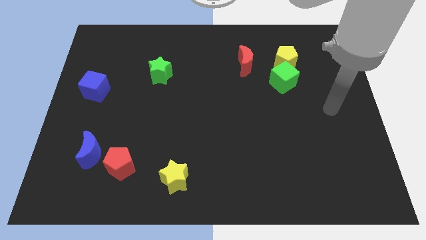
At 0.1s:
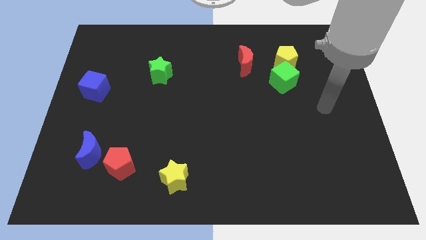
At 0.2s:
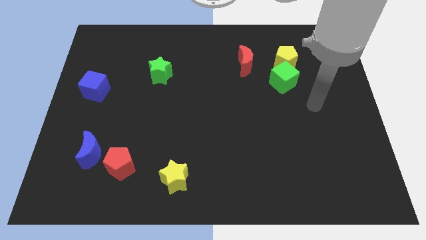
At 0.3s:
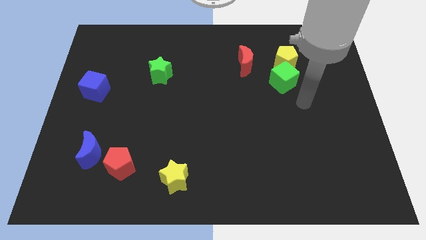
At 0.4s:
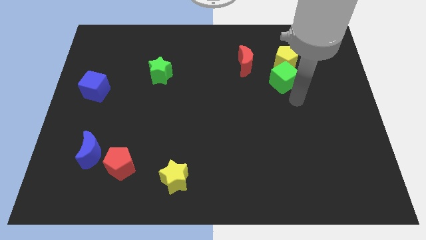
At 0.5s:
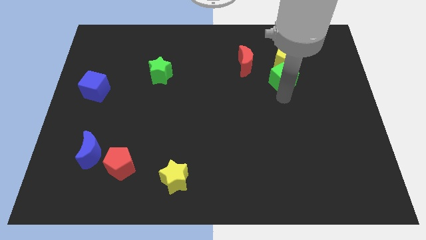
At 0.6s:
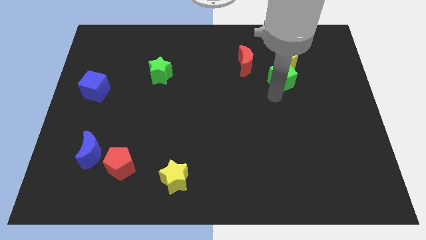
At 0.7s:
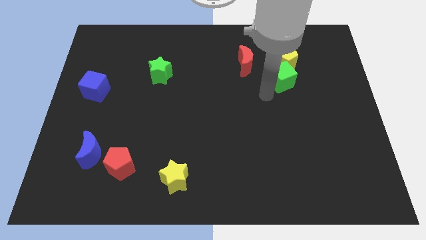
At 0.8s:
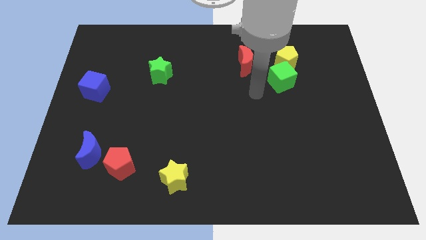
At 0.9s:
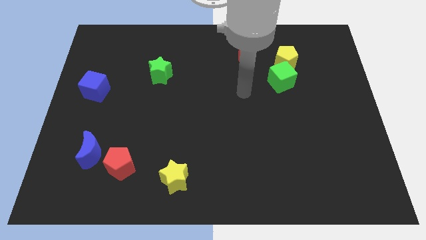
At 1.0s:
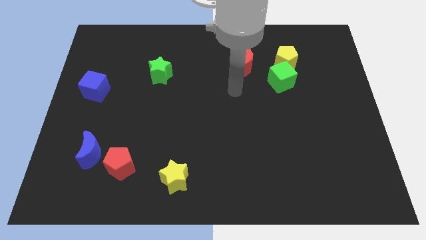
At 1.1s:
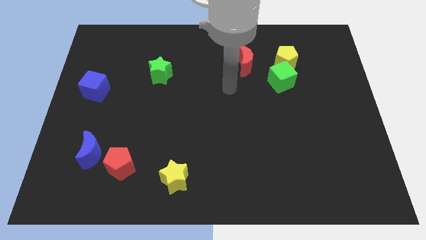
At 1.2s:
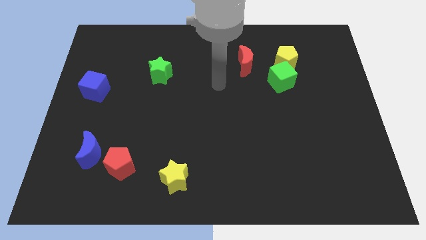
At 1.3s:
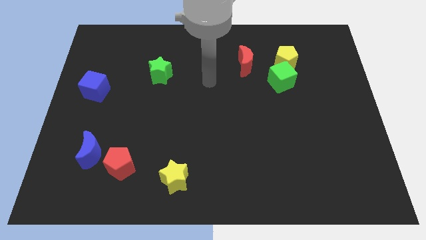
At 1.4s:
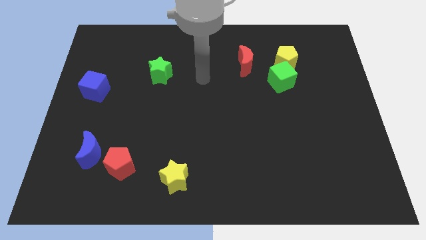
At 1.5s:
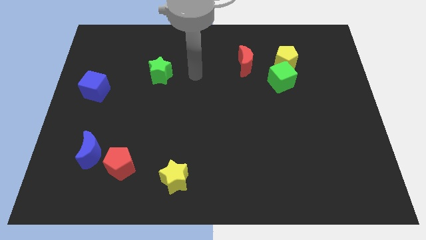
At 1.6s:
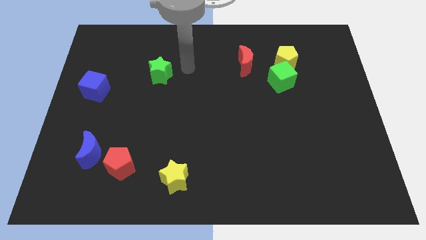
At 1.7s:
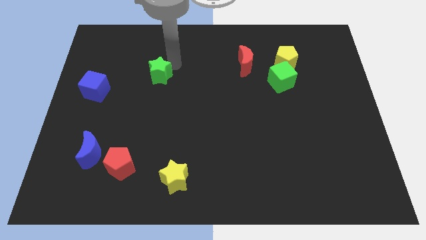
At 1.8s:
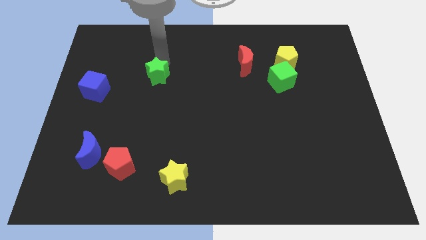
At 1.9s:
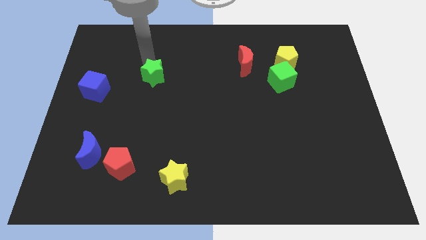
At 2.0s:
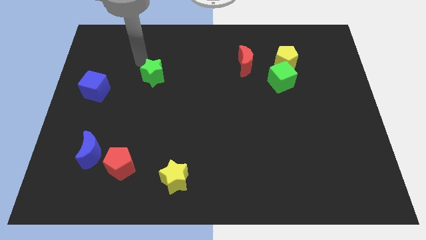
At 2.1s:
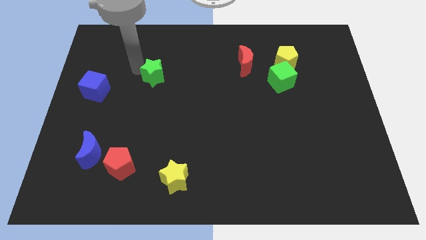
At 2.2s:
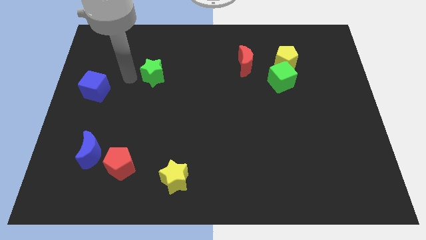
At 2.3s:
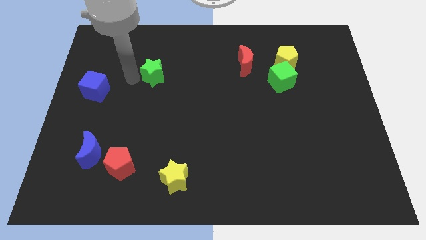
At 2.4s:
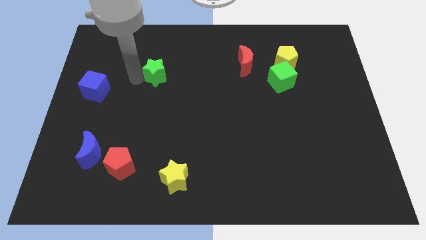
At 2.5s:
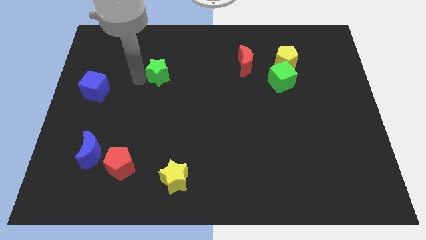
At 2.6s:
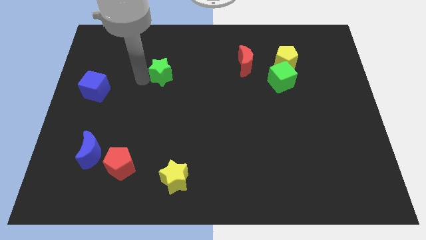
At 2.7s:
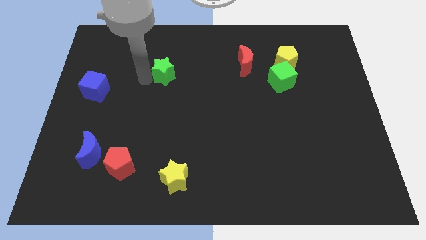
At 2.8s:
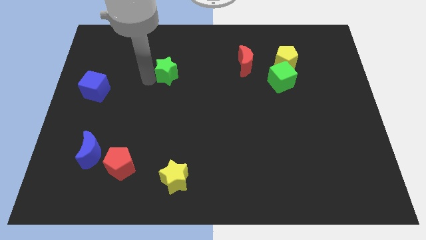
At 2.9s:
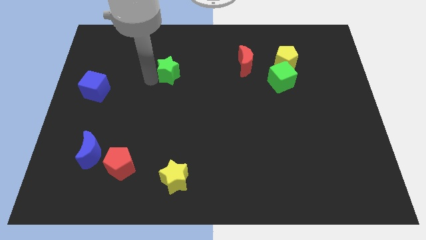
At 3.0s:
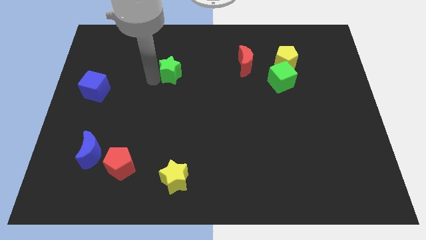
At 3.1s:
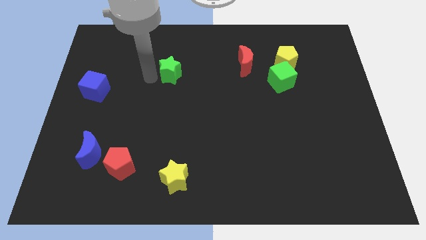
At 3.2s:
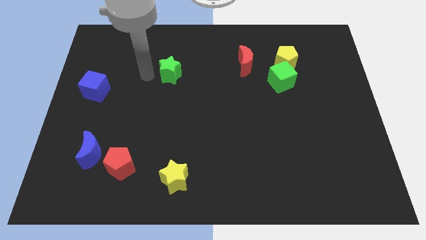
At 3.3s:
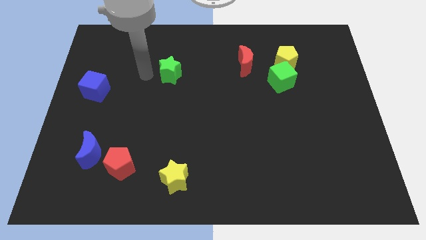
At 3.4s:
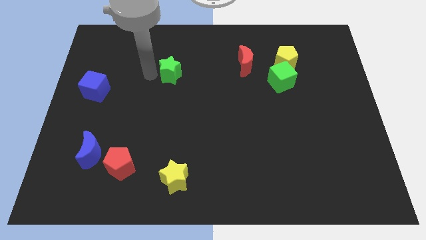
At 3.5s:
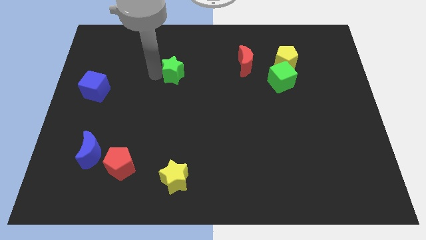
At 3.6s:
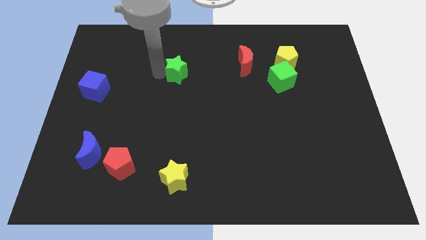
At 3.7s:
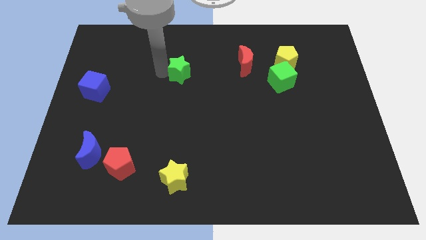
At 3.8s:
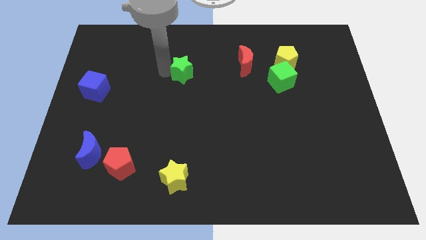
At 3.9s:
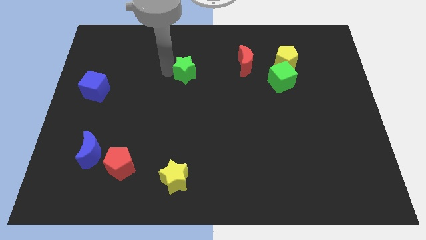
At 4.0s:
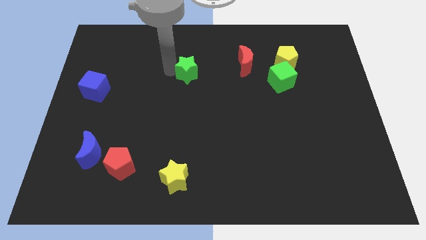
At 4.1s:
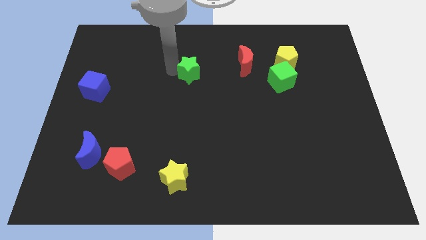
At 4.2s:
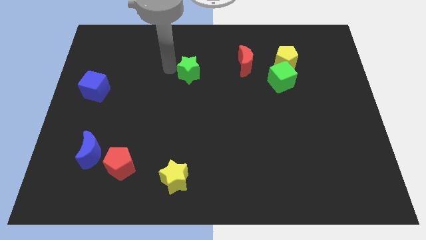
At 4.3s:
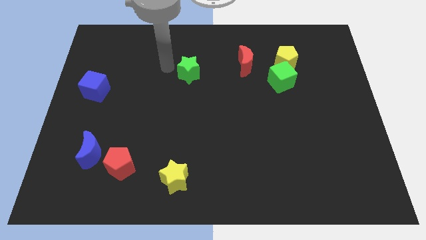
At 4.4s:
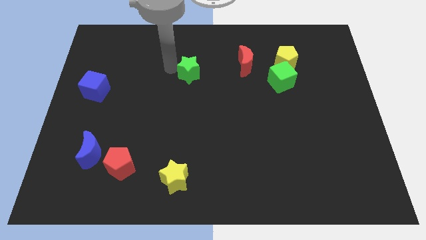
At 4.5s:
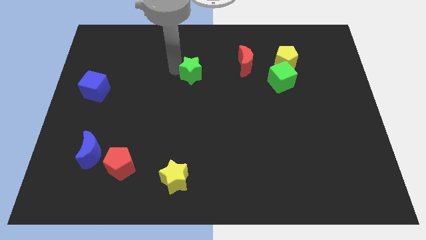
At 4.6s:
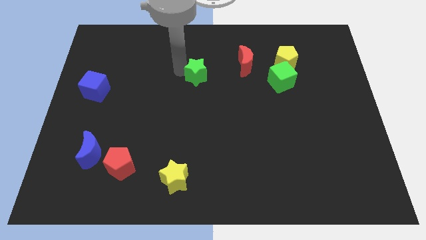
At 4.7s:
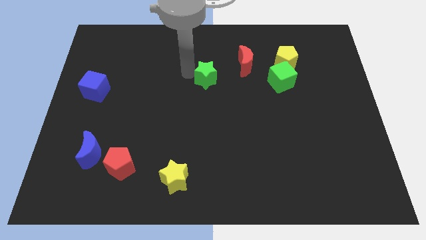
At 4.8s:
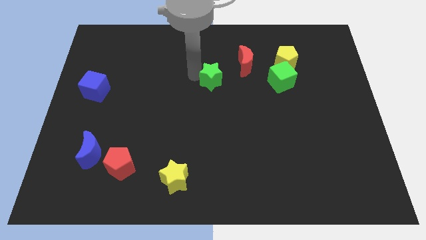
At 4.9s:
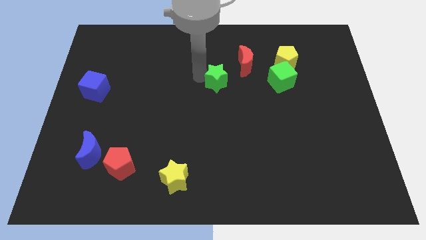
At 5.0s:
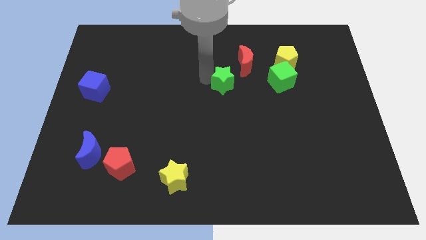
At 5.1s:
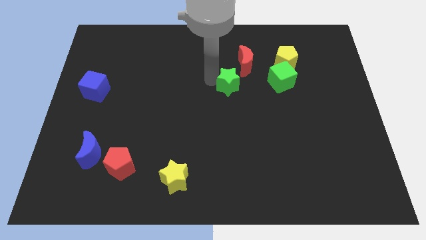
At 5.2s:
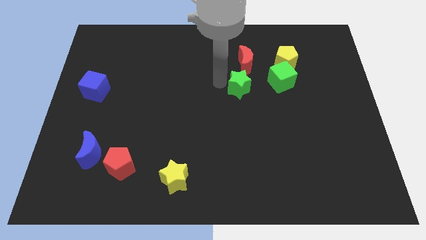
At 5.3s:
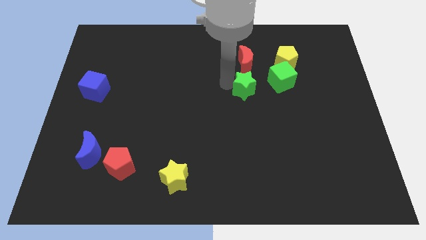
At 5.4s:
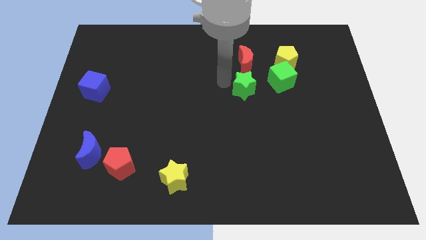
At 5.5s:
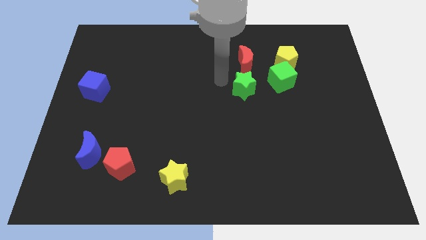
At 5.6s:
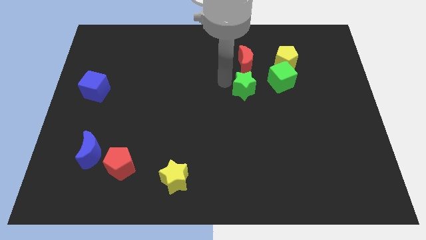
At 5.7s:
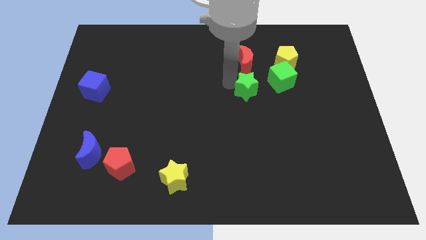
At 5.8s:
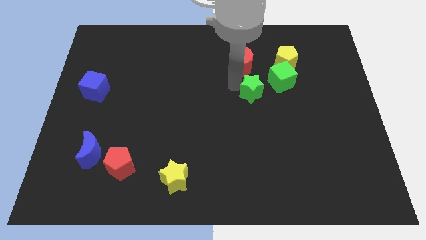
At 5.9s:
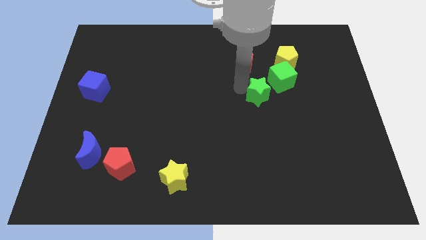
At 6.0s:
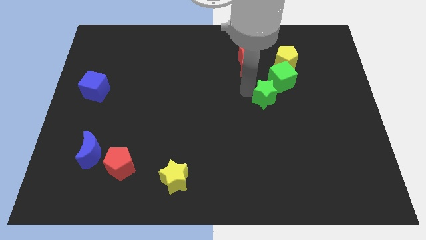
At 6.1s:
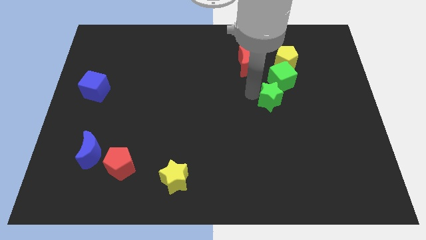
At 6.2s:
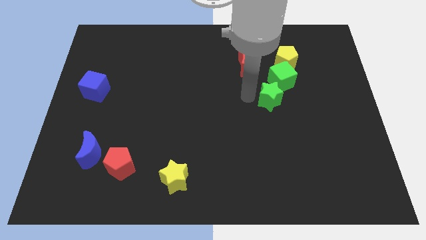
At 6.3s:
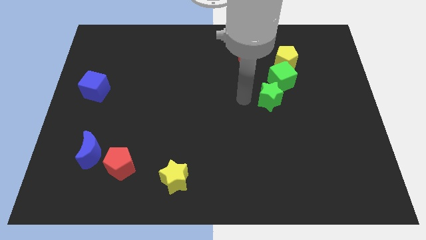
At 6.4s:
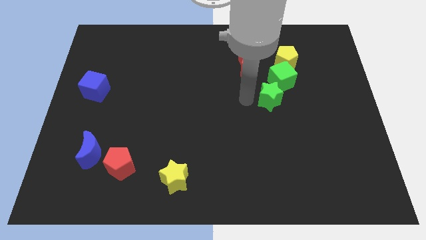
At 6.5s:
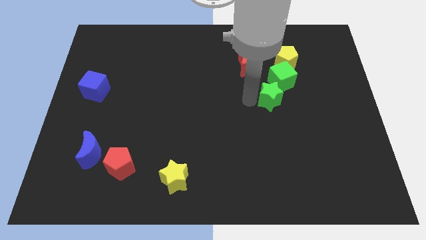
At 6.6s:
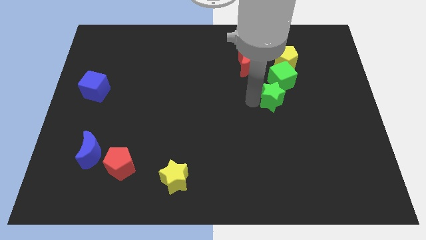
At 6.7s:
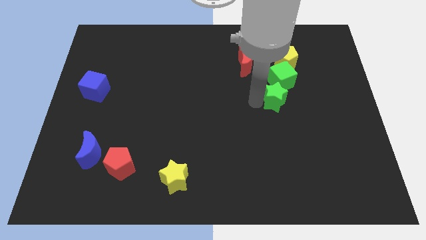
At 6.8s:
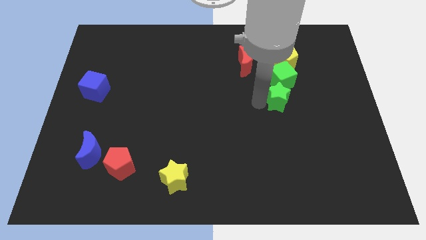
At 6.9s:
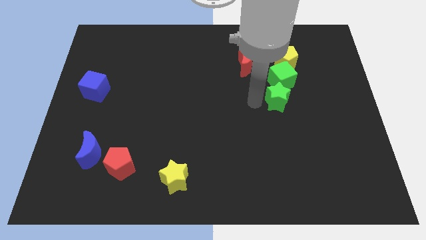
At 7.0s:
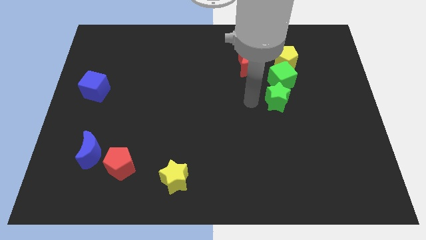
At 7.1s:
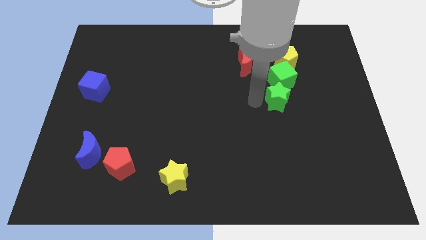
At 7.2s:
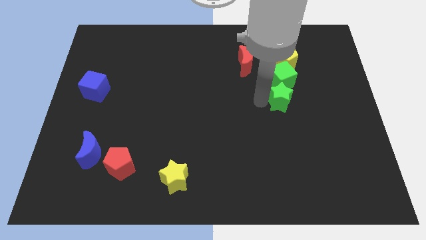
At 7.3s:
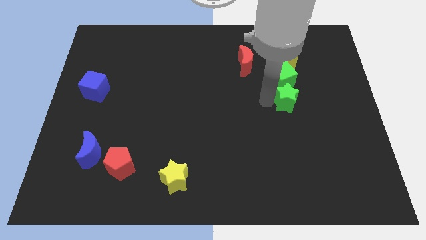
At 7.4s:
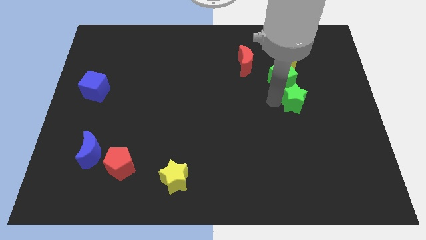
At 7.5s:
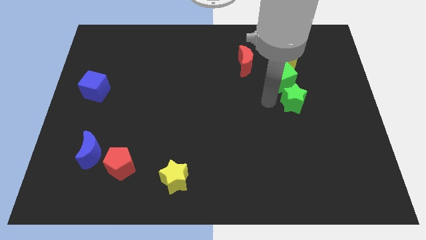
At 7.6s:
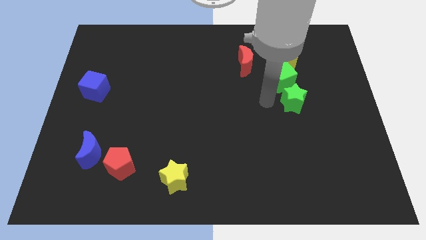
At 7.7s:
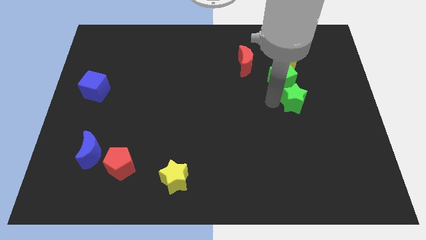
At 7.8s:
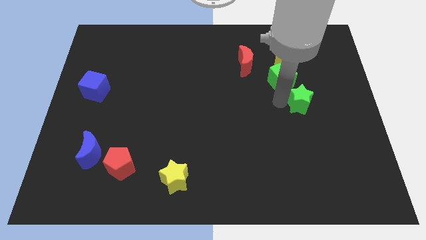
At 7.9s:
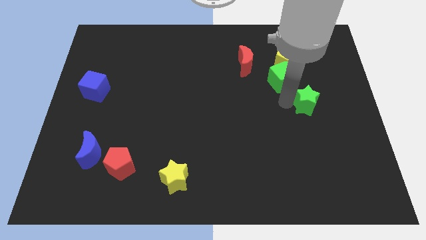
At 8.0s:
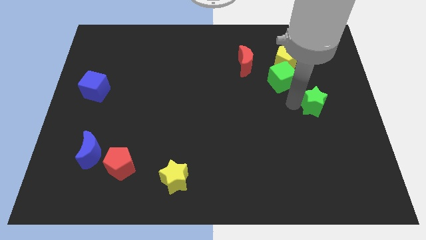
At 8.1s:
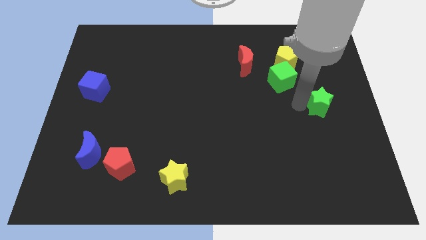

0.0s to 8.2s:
push the green star to the right side
